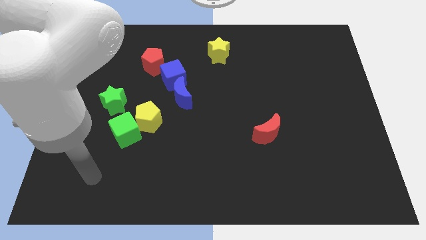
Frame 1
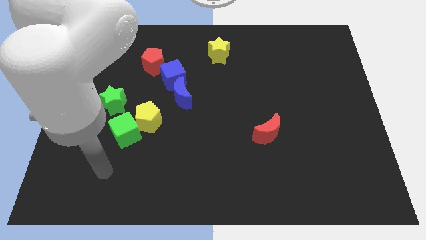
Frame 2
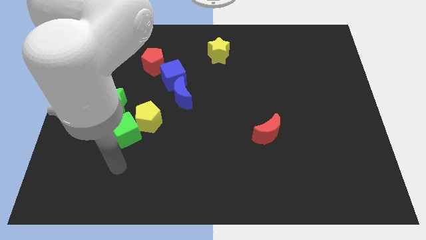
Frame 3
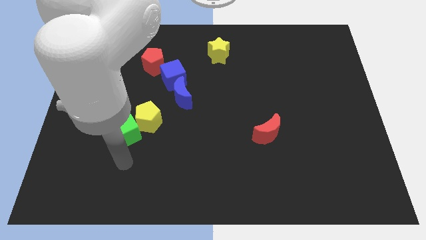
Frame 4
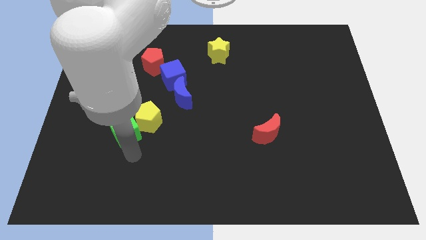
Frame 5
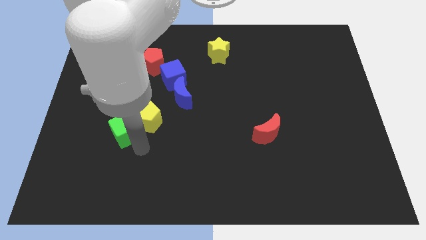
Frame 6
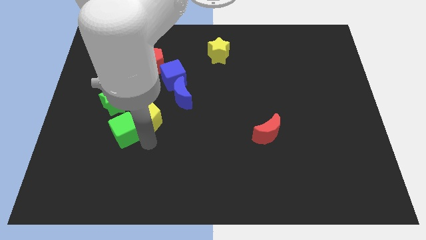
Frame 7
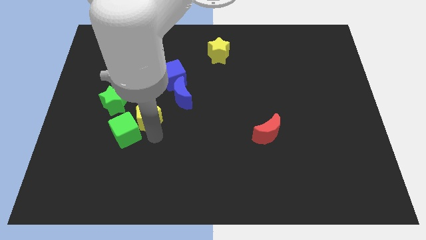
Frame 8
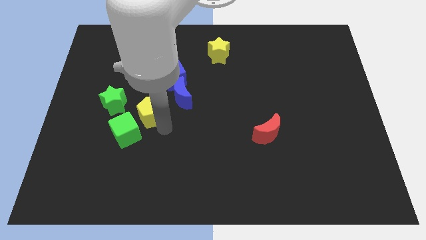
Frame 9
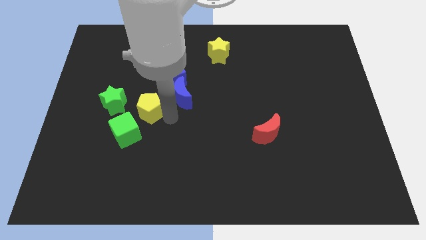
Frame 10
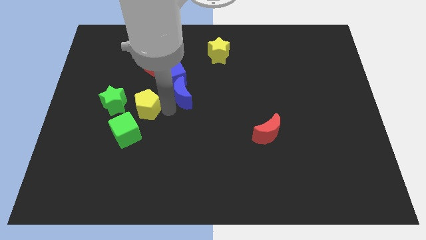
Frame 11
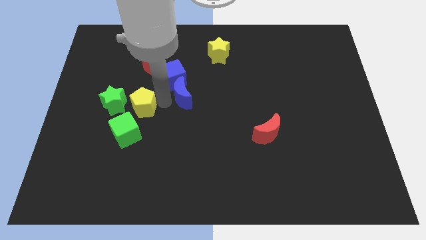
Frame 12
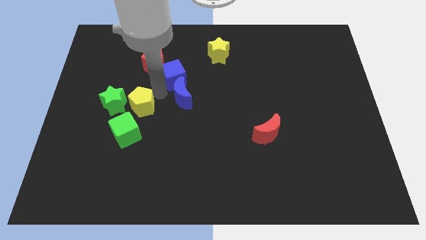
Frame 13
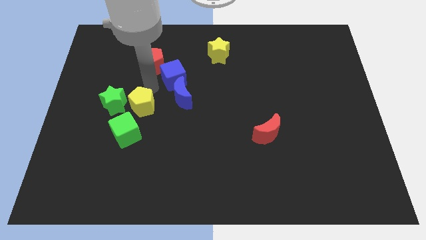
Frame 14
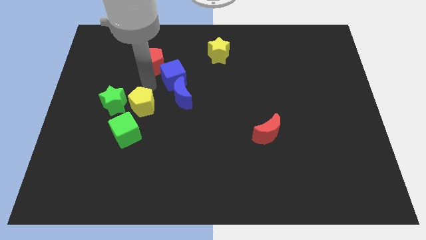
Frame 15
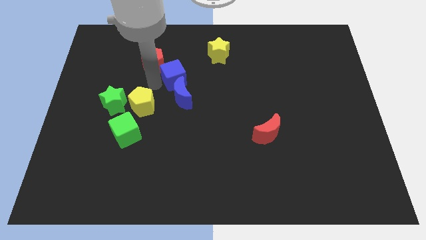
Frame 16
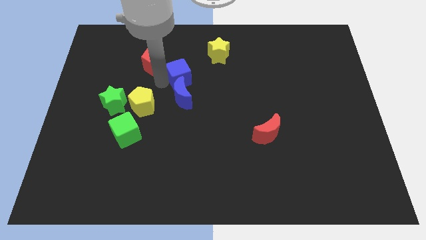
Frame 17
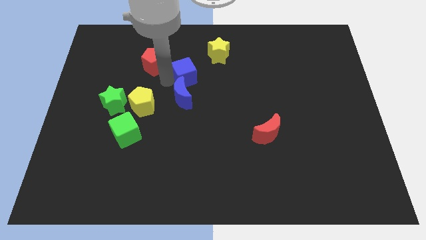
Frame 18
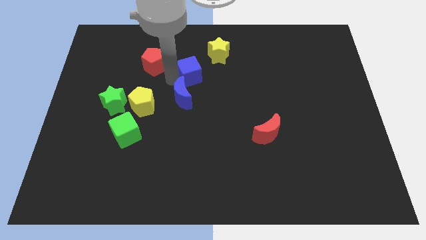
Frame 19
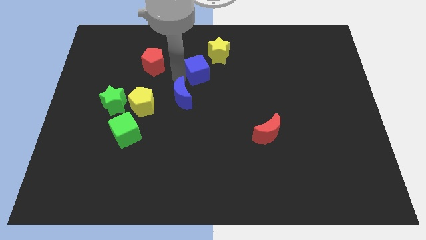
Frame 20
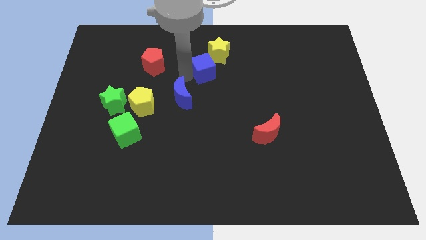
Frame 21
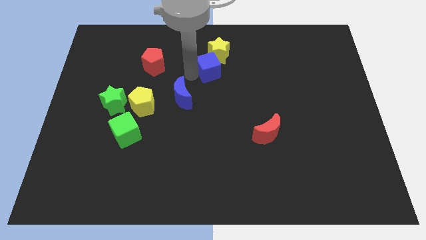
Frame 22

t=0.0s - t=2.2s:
separate the blue cube from the blue moon and red pentagon

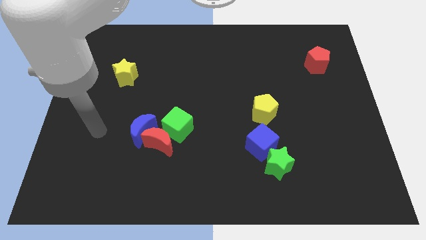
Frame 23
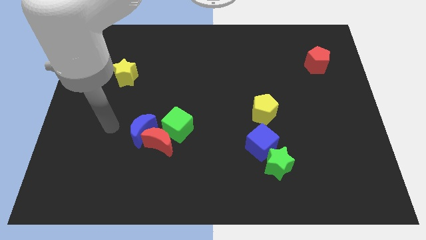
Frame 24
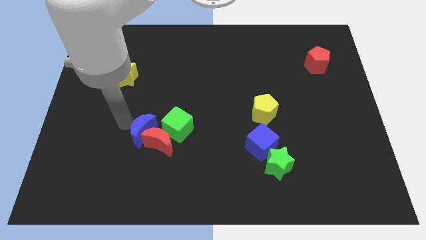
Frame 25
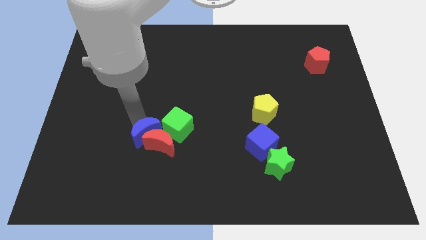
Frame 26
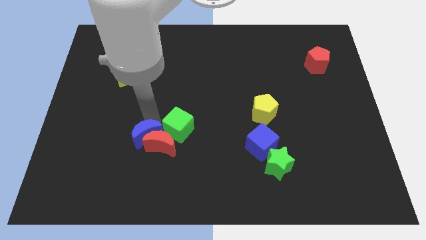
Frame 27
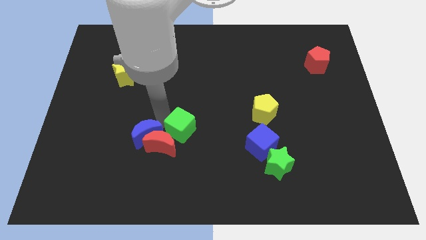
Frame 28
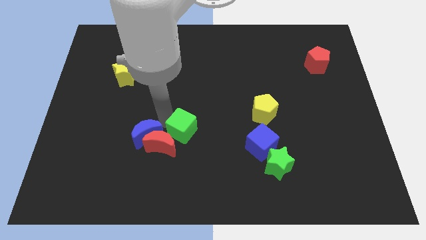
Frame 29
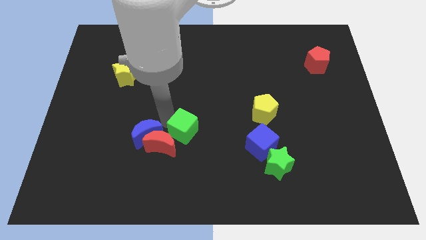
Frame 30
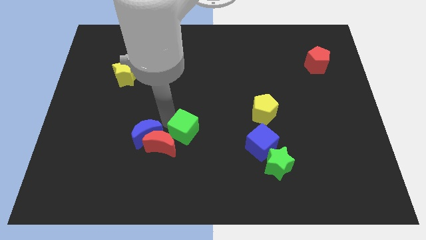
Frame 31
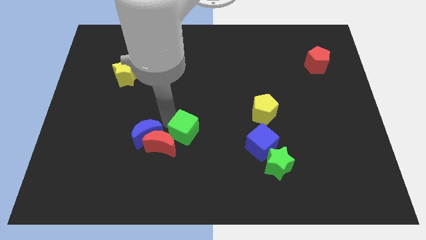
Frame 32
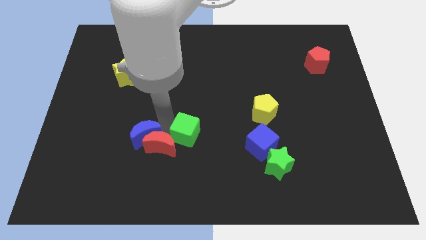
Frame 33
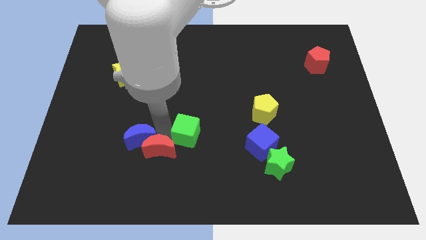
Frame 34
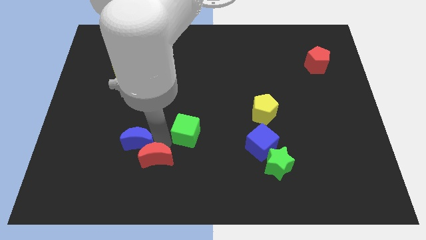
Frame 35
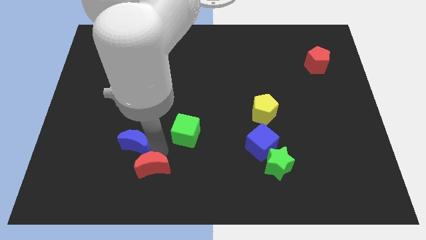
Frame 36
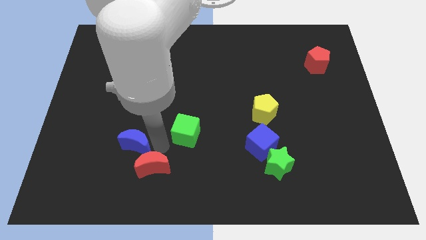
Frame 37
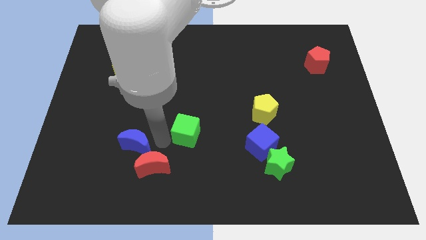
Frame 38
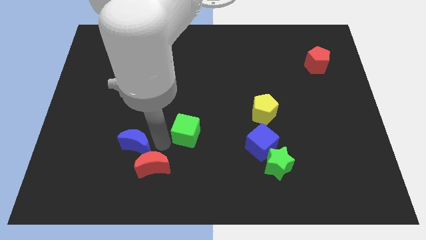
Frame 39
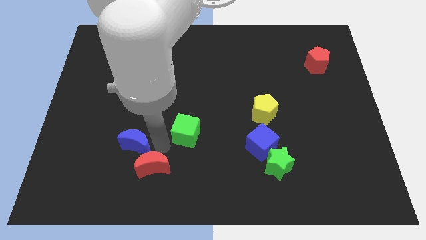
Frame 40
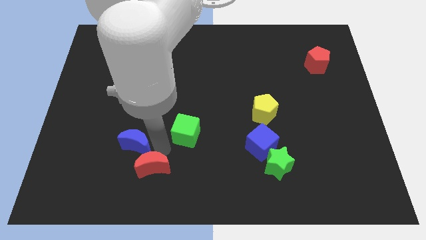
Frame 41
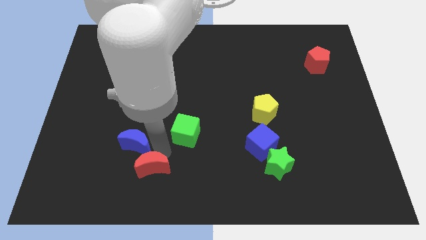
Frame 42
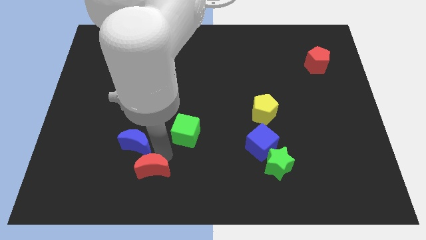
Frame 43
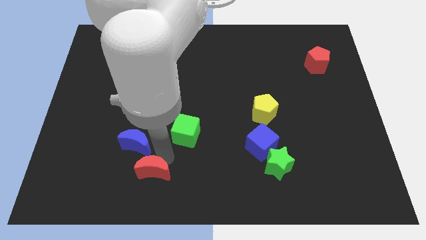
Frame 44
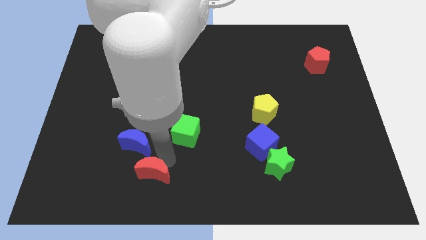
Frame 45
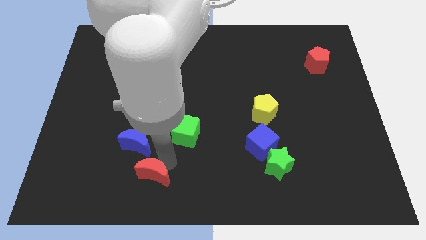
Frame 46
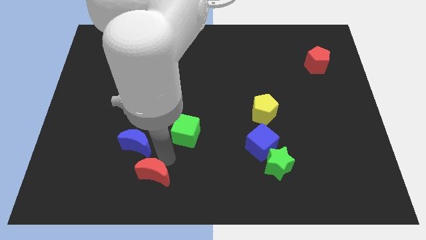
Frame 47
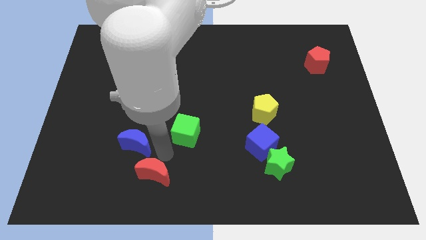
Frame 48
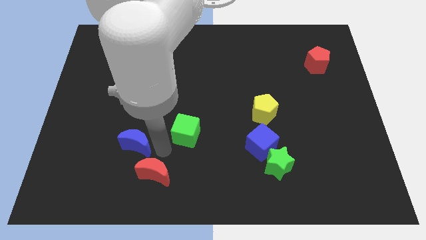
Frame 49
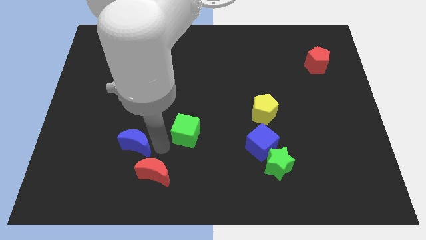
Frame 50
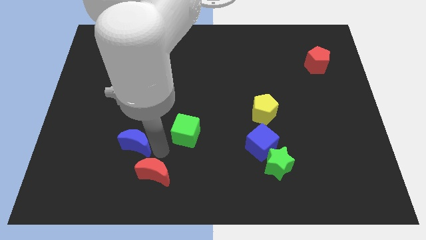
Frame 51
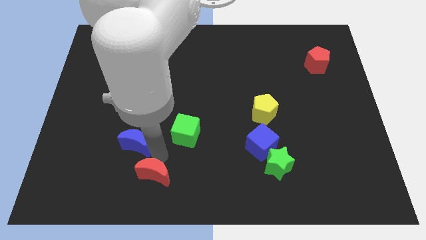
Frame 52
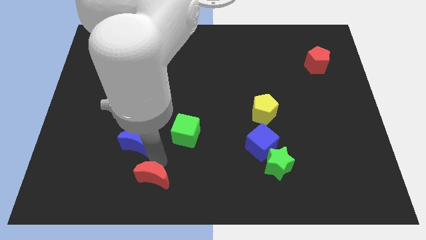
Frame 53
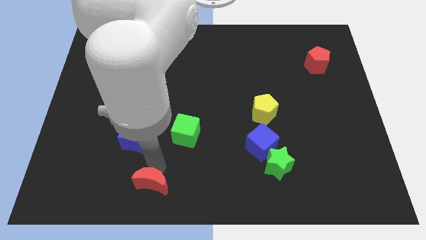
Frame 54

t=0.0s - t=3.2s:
move the red moon away from the blue moon and green cube

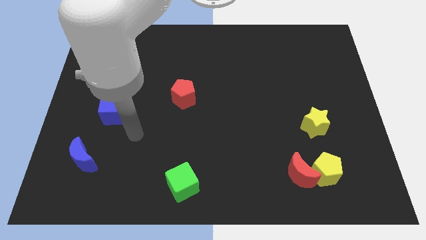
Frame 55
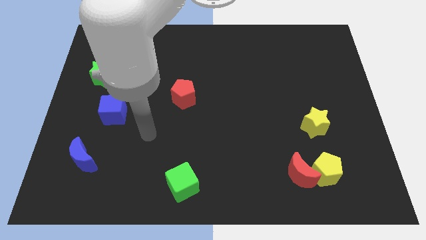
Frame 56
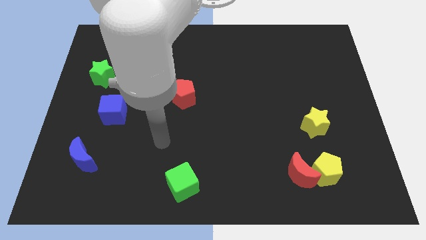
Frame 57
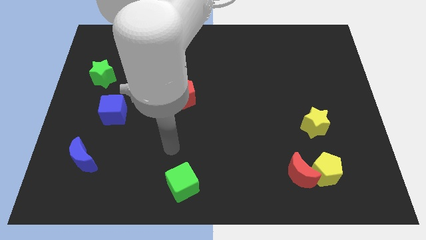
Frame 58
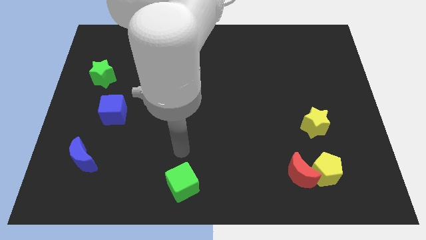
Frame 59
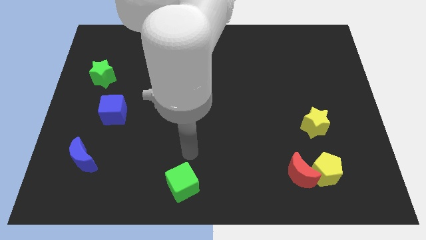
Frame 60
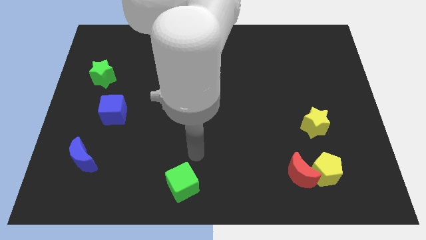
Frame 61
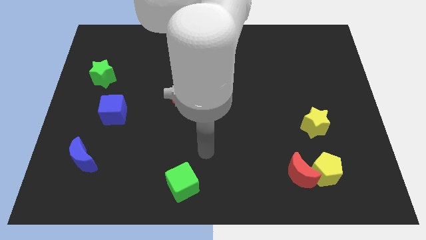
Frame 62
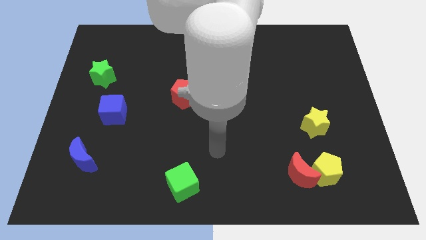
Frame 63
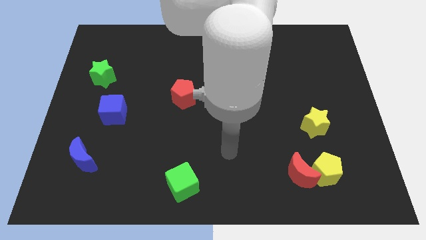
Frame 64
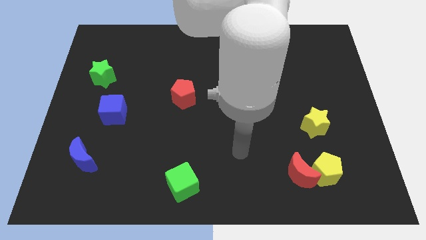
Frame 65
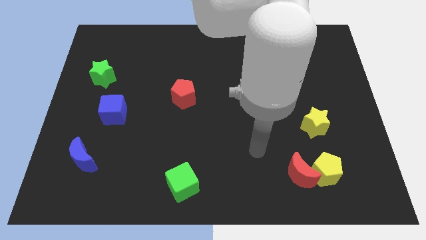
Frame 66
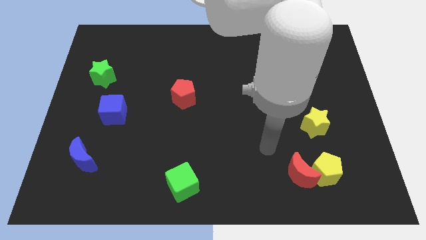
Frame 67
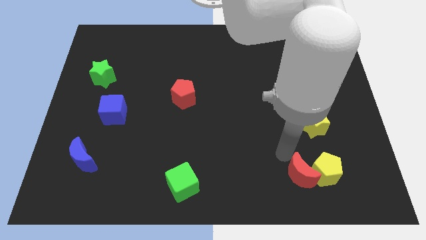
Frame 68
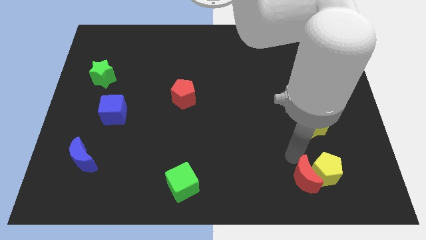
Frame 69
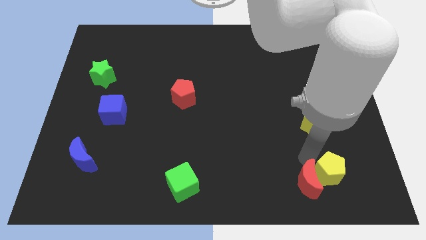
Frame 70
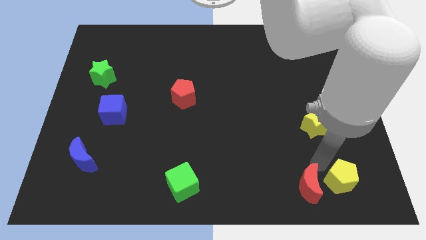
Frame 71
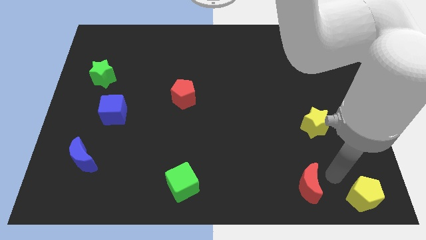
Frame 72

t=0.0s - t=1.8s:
move the red moon away from the yellow pentagon

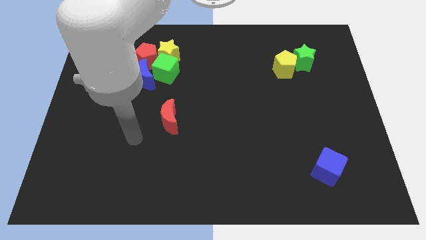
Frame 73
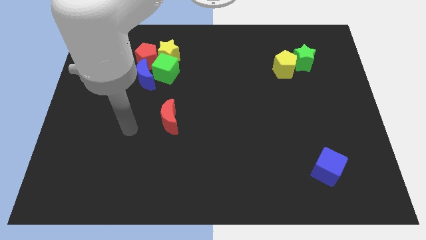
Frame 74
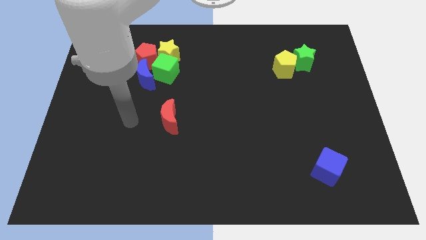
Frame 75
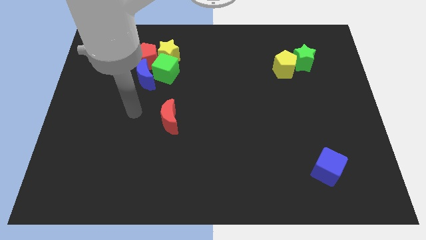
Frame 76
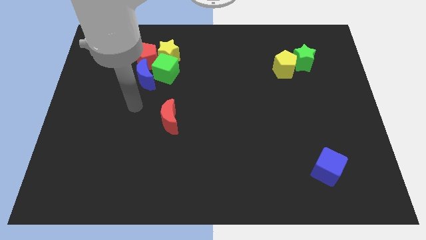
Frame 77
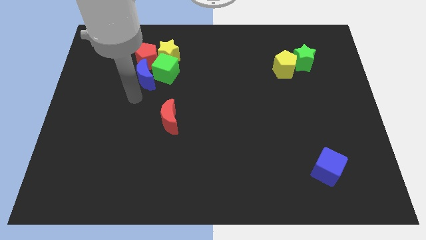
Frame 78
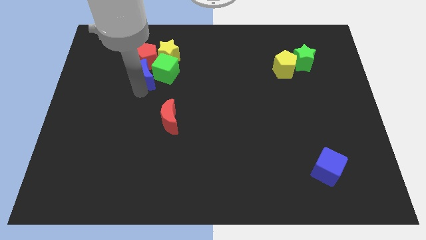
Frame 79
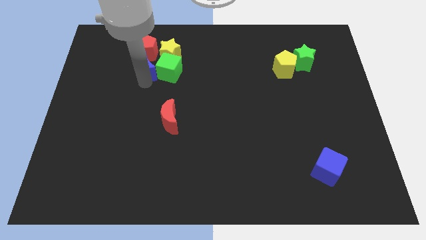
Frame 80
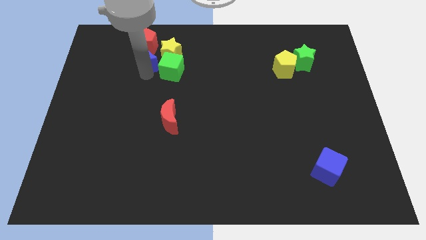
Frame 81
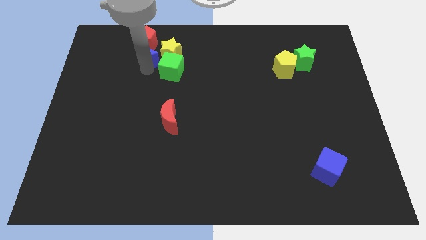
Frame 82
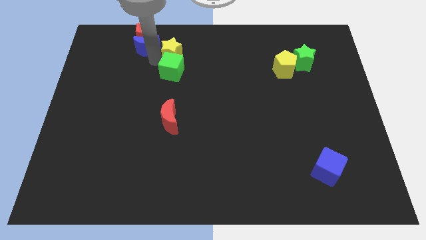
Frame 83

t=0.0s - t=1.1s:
move the green cube away from the blue moon, yellow star, and red pentagon

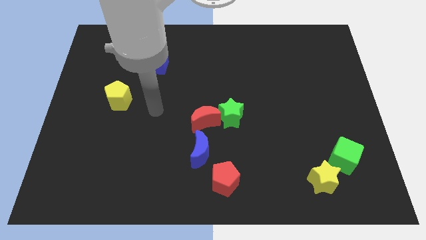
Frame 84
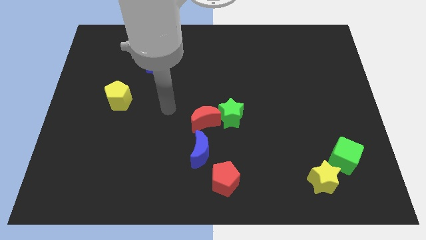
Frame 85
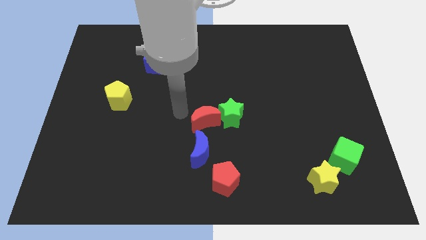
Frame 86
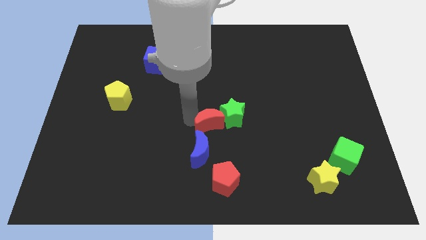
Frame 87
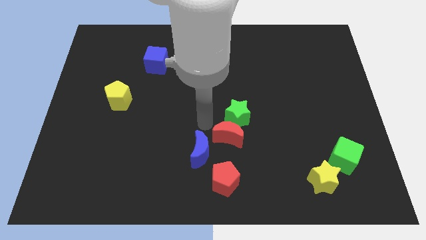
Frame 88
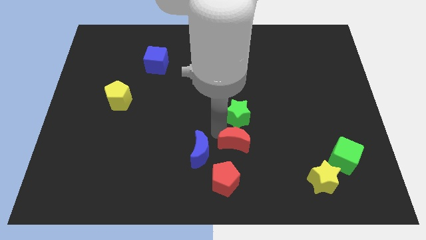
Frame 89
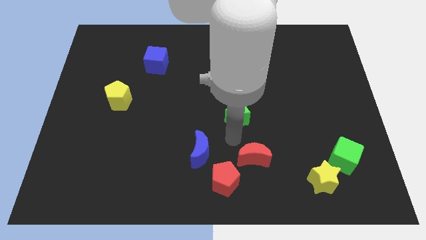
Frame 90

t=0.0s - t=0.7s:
move the green star away from the red moon

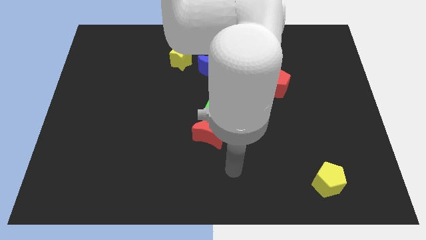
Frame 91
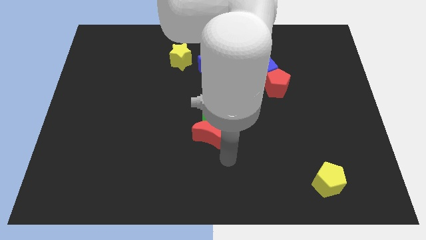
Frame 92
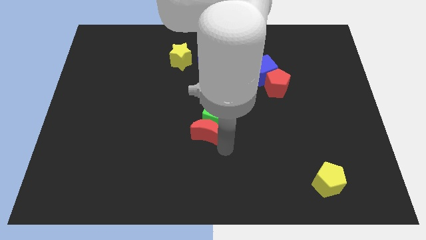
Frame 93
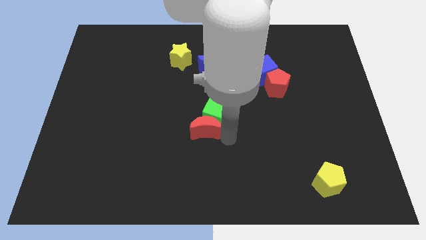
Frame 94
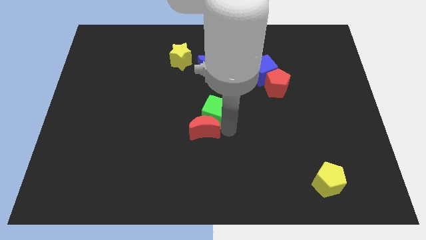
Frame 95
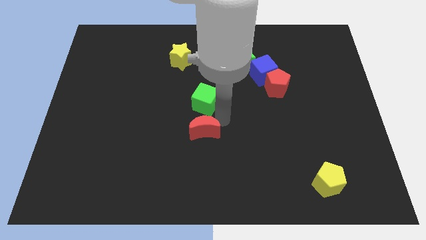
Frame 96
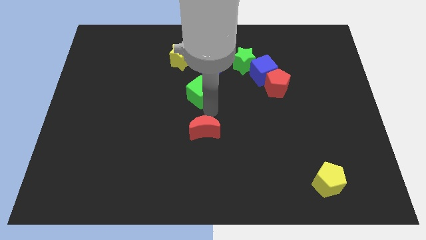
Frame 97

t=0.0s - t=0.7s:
separate the red moon from the green cube
